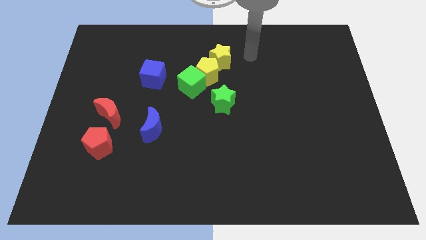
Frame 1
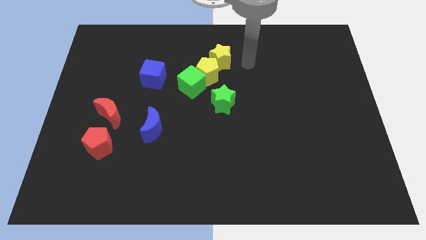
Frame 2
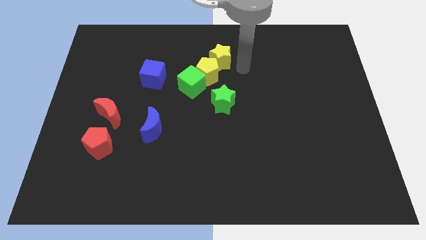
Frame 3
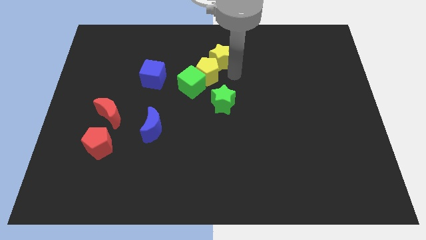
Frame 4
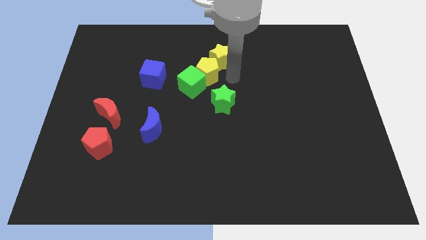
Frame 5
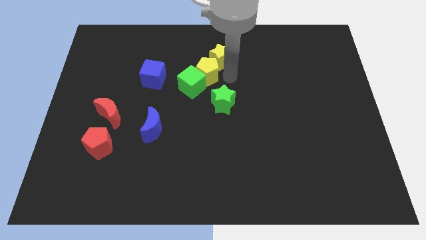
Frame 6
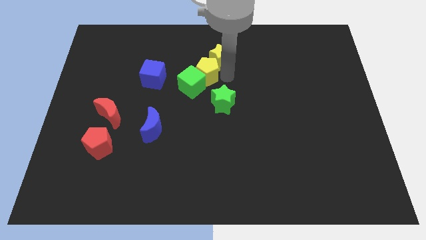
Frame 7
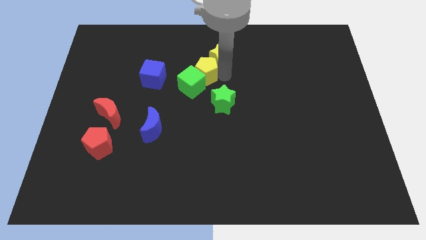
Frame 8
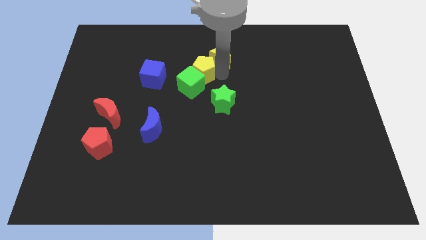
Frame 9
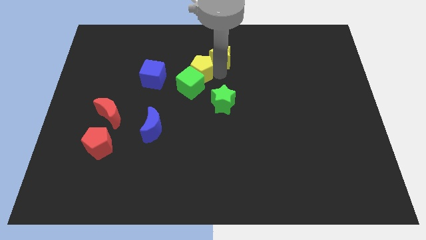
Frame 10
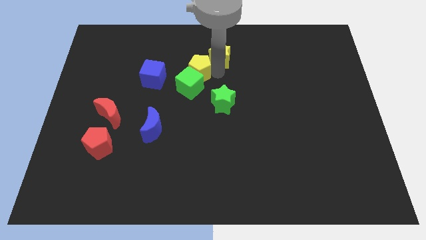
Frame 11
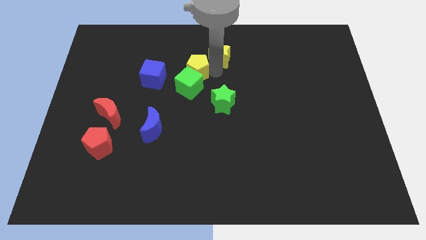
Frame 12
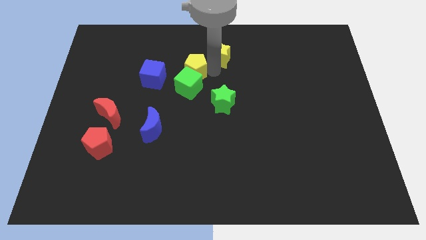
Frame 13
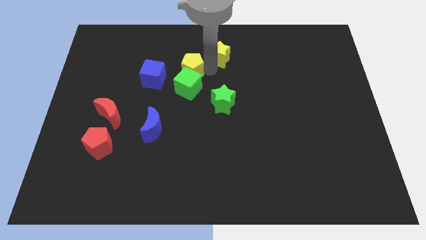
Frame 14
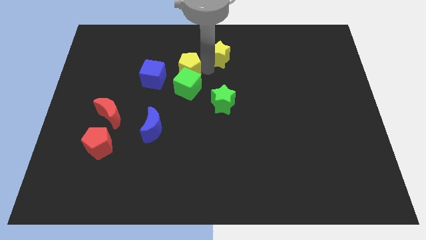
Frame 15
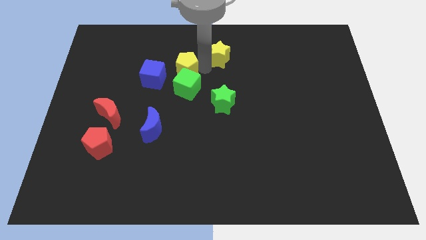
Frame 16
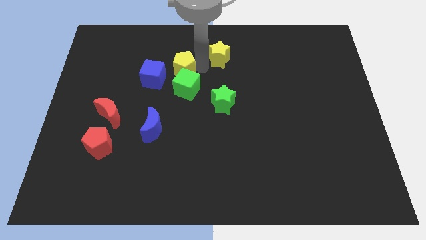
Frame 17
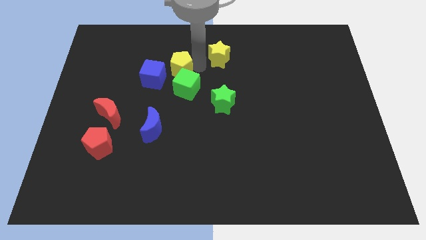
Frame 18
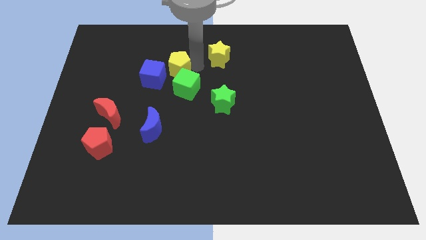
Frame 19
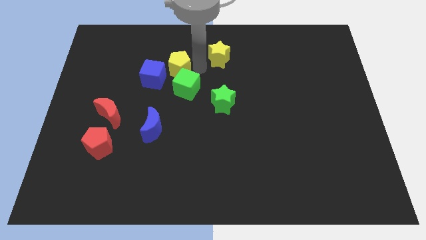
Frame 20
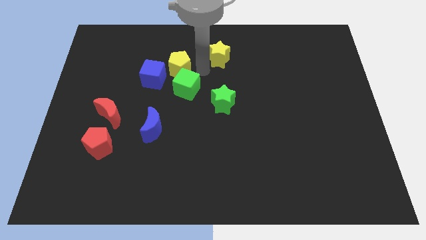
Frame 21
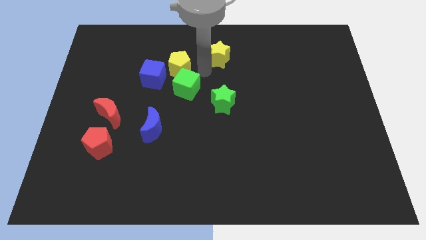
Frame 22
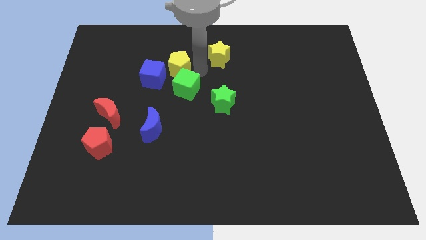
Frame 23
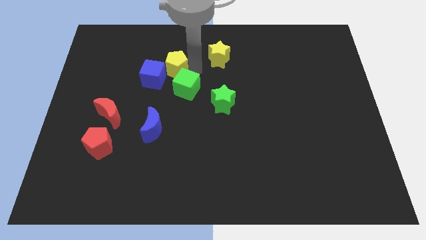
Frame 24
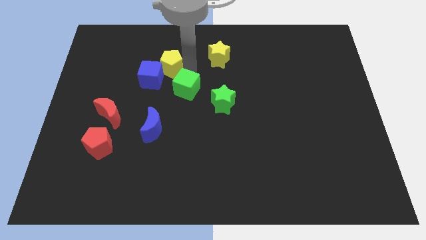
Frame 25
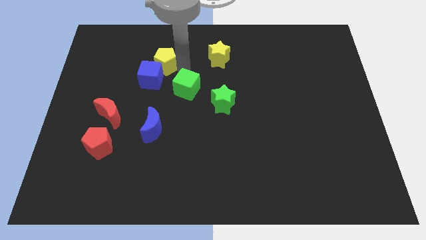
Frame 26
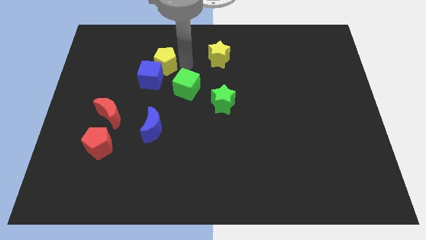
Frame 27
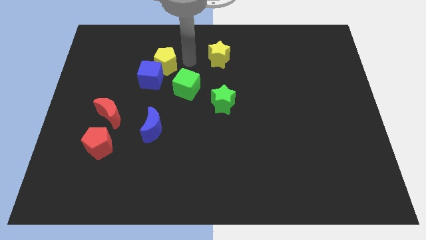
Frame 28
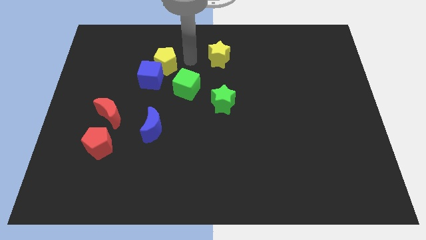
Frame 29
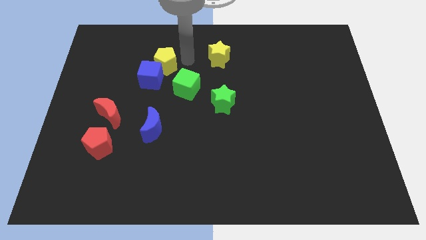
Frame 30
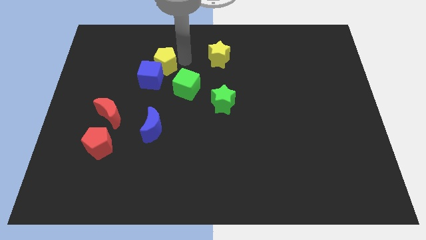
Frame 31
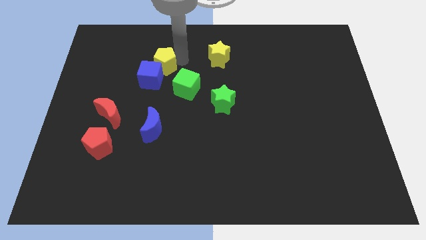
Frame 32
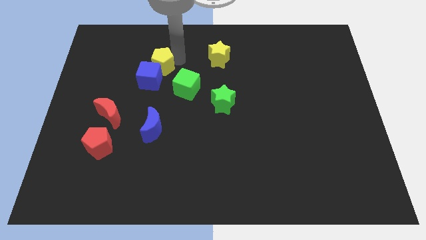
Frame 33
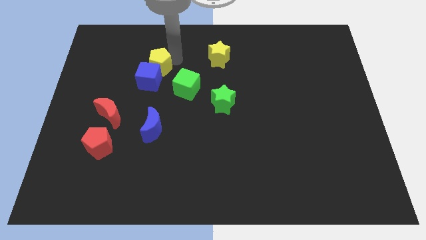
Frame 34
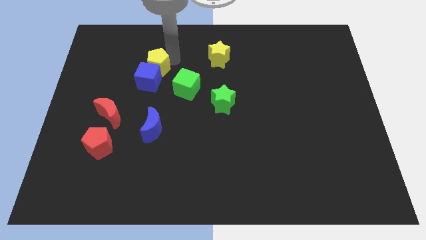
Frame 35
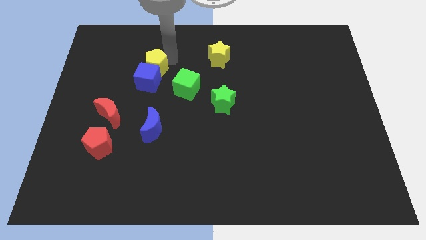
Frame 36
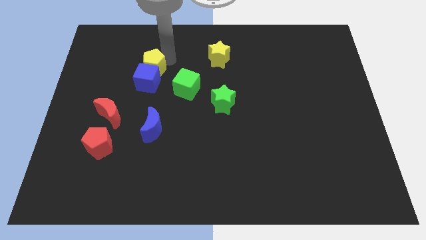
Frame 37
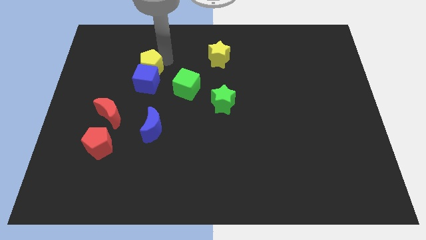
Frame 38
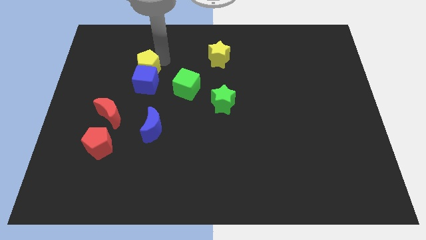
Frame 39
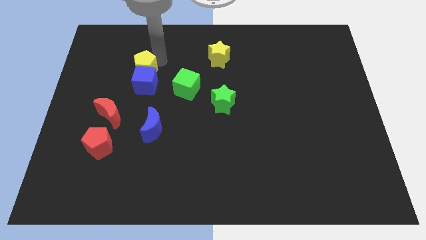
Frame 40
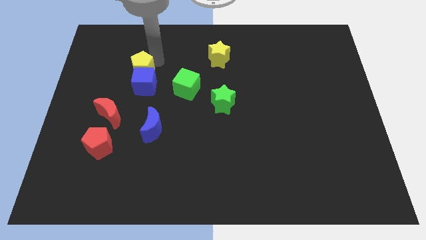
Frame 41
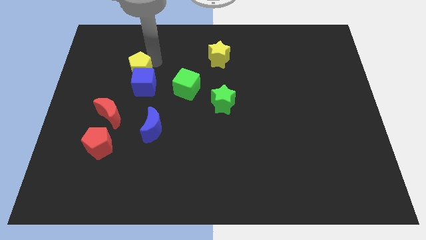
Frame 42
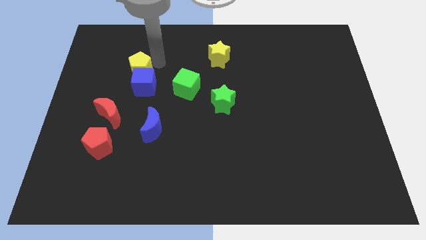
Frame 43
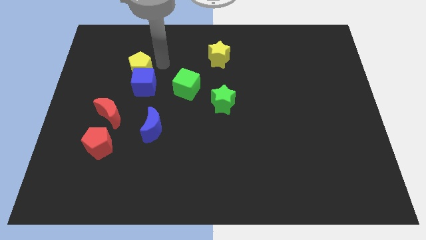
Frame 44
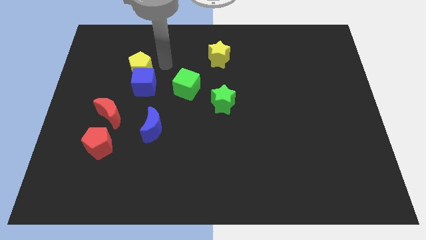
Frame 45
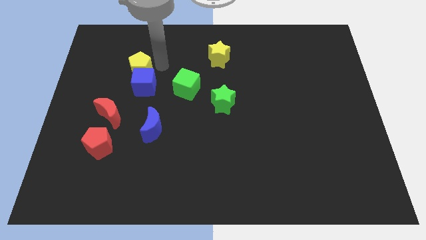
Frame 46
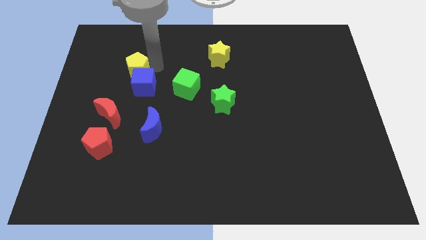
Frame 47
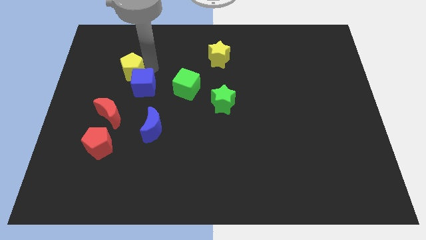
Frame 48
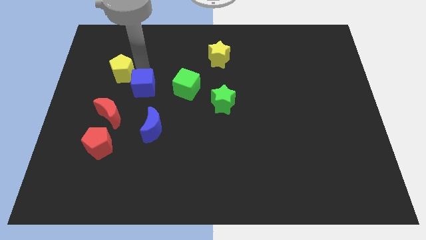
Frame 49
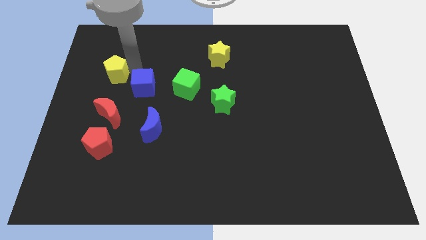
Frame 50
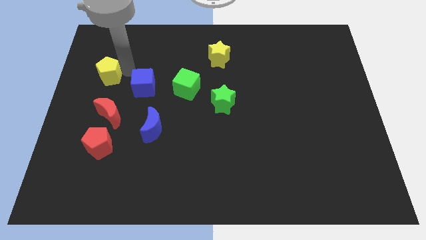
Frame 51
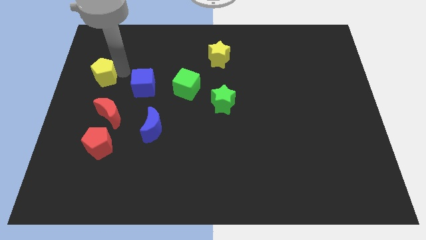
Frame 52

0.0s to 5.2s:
slide the yellow pentagon to the left side

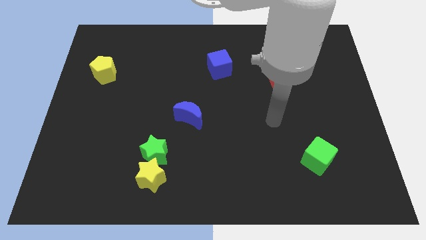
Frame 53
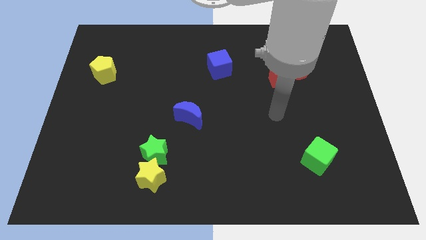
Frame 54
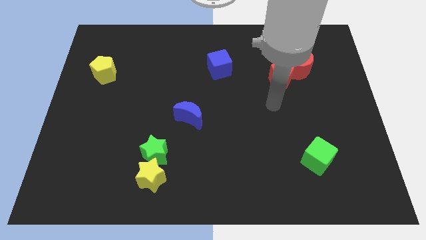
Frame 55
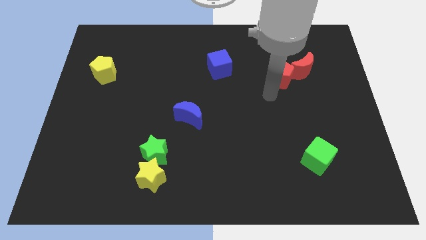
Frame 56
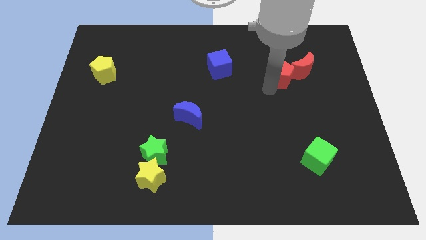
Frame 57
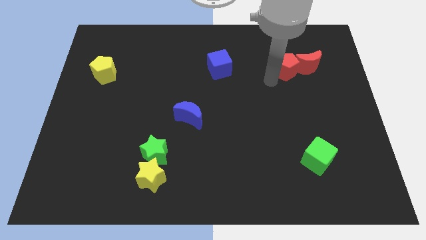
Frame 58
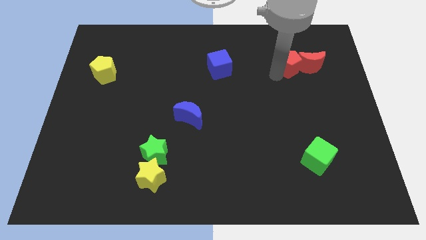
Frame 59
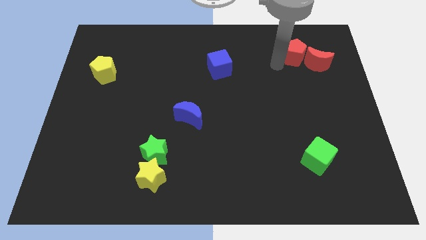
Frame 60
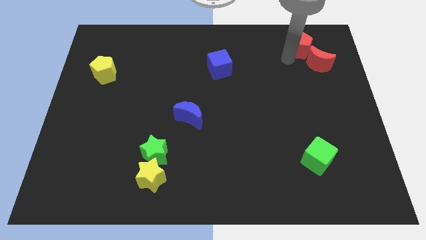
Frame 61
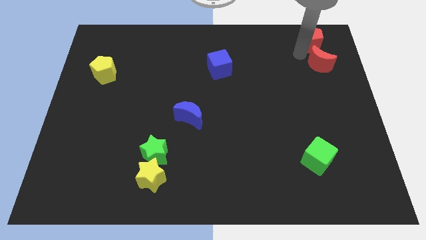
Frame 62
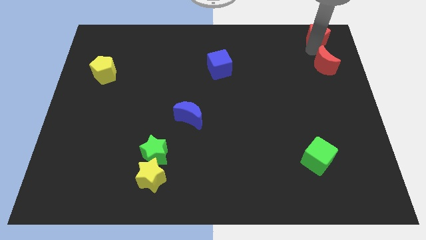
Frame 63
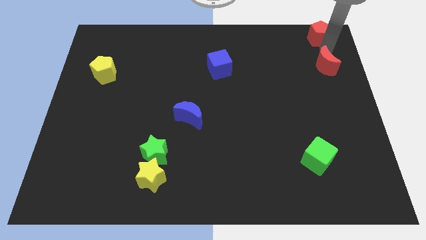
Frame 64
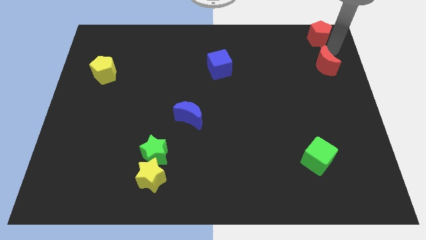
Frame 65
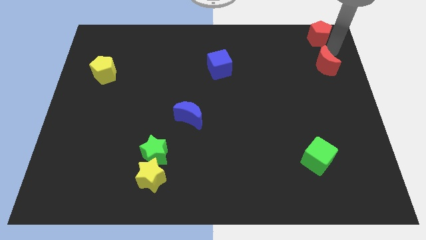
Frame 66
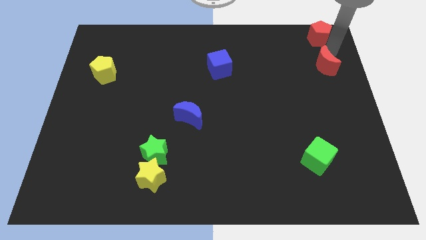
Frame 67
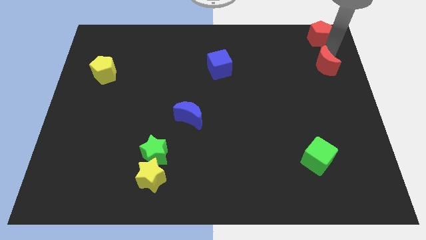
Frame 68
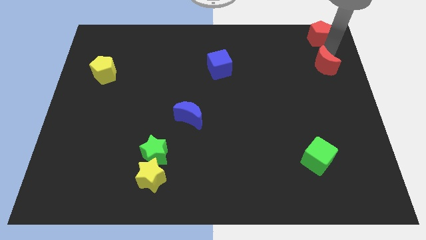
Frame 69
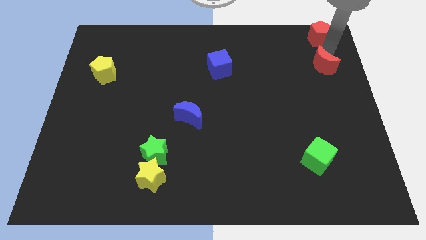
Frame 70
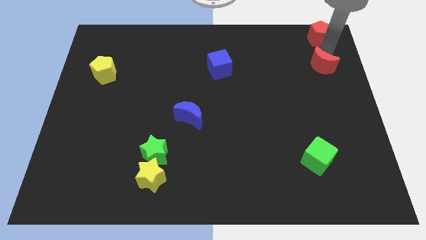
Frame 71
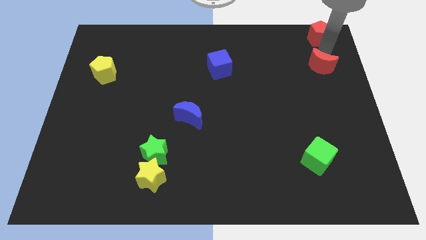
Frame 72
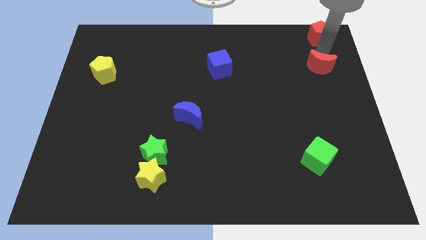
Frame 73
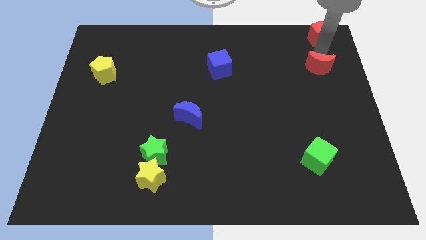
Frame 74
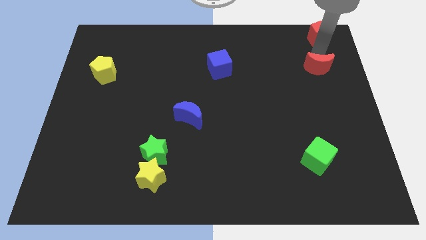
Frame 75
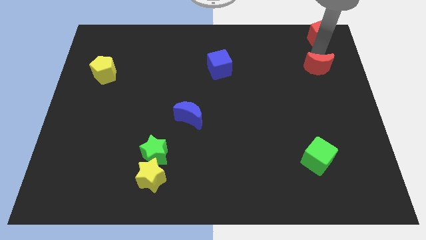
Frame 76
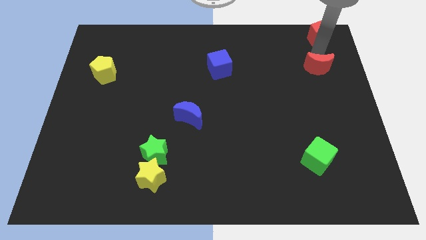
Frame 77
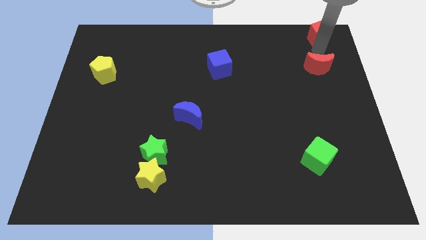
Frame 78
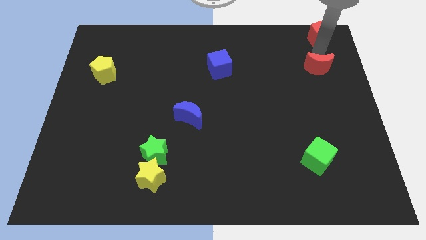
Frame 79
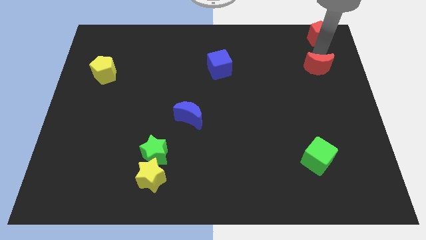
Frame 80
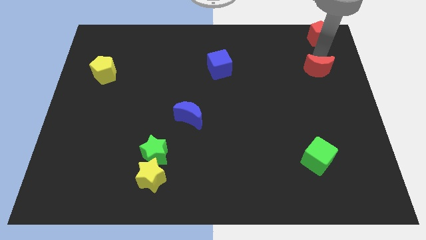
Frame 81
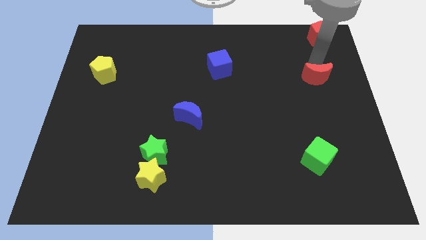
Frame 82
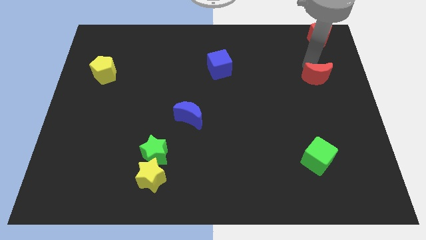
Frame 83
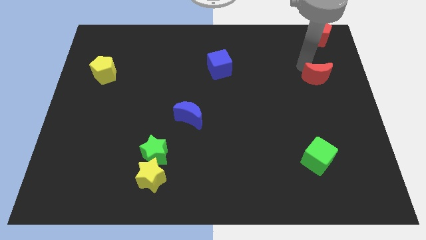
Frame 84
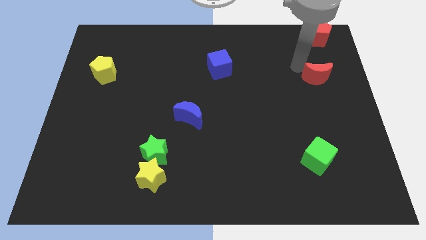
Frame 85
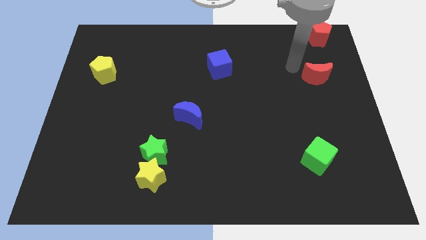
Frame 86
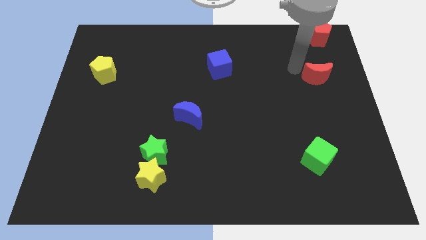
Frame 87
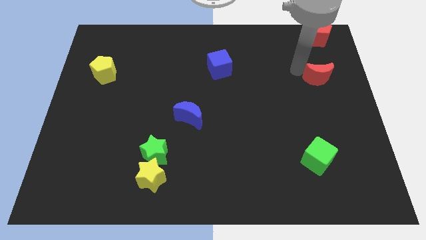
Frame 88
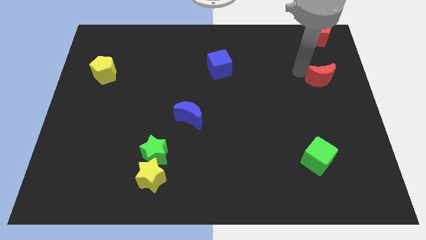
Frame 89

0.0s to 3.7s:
put the red moon to the right side
